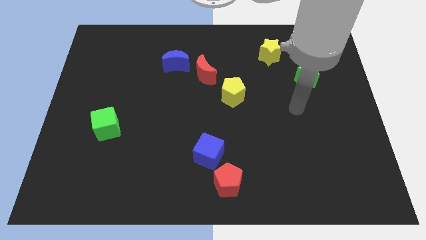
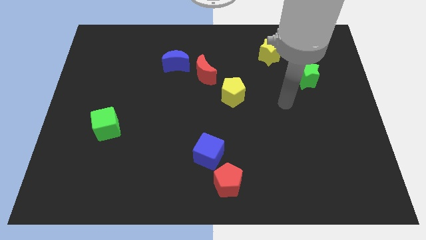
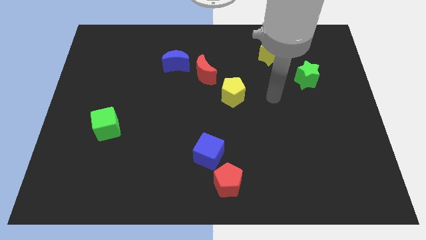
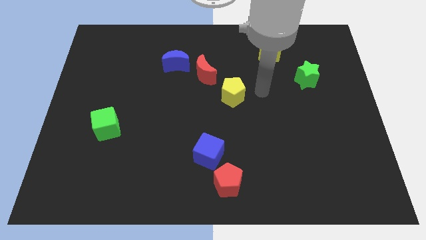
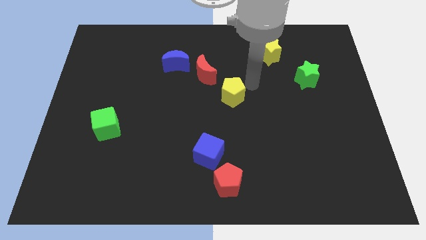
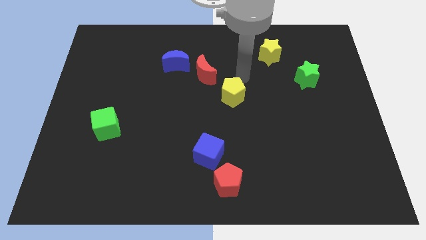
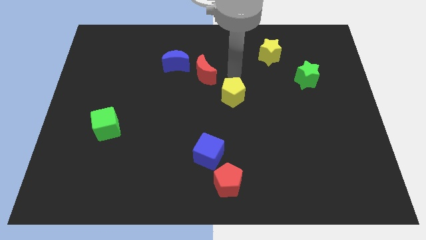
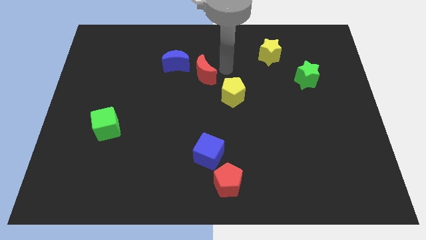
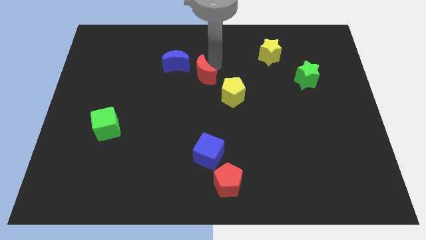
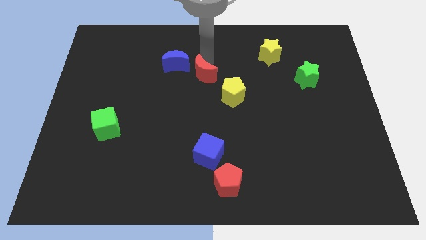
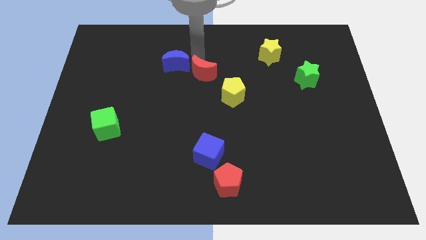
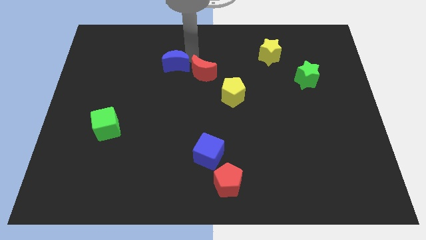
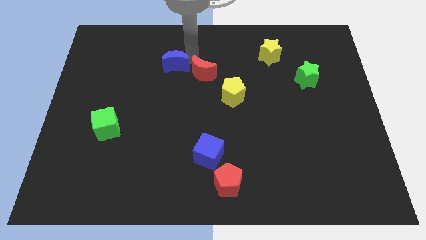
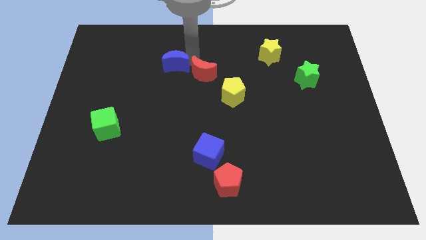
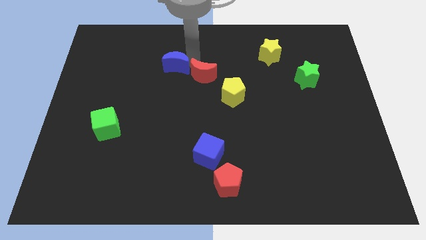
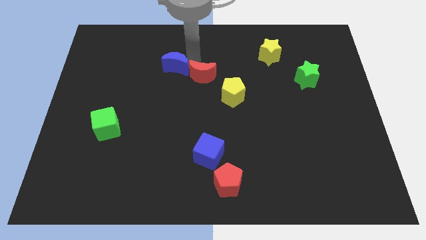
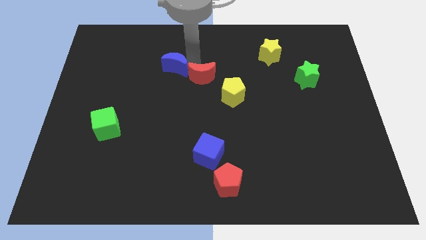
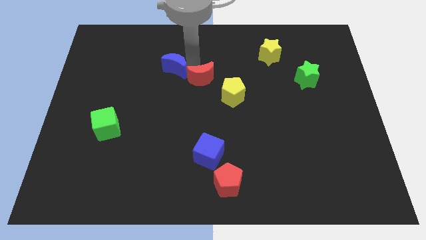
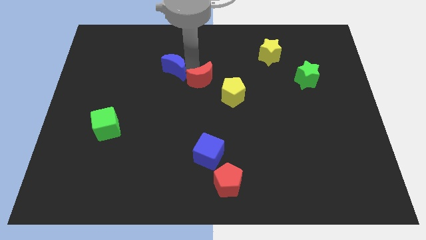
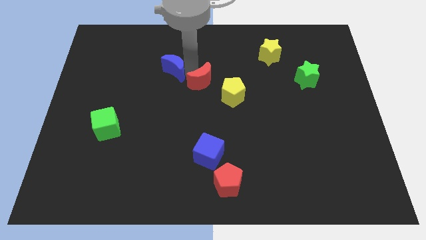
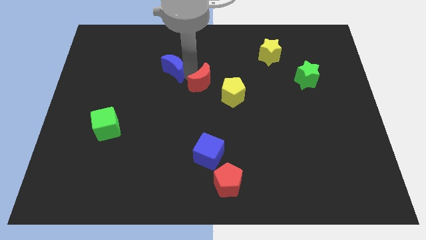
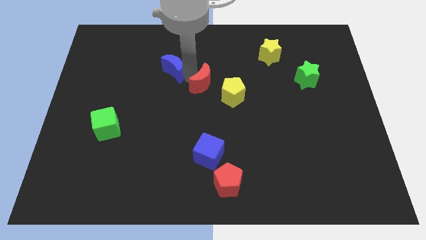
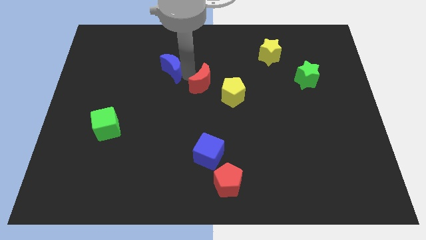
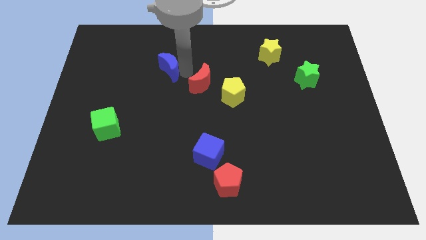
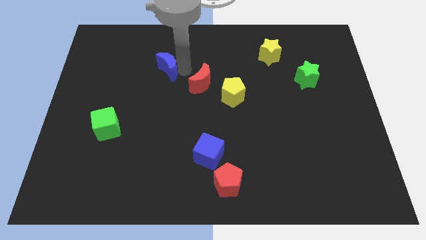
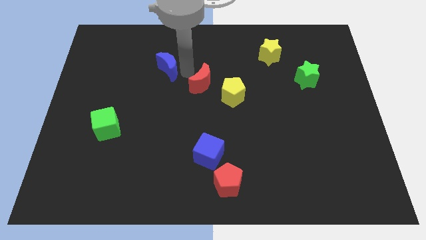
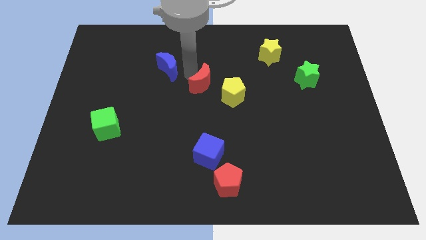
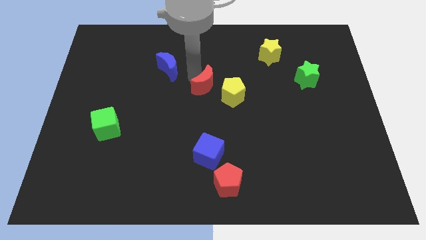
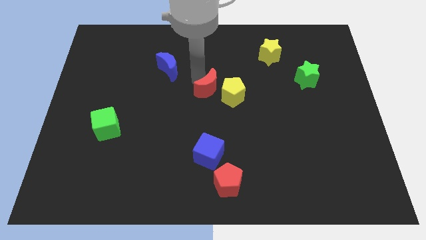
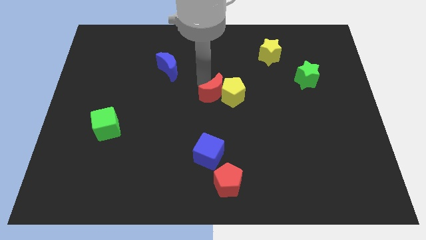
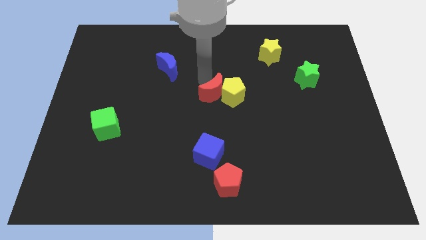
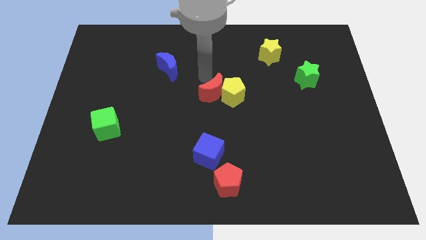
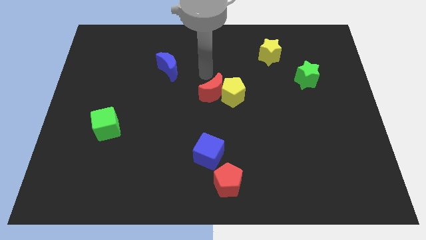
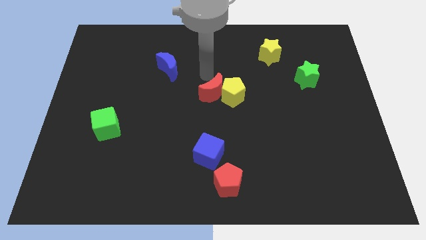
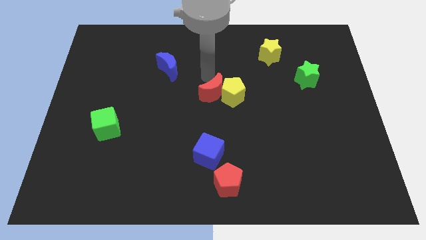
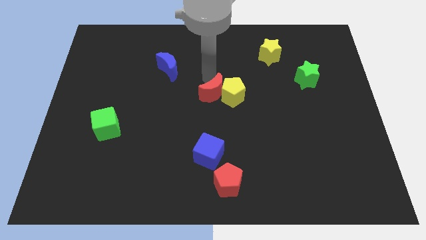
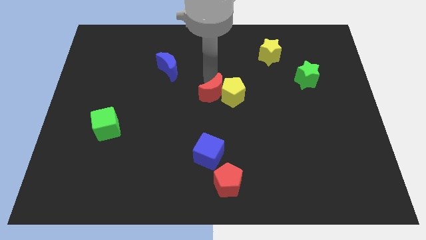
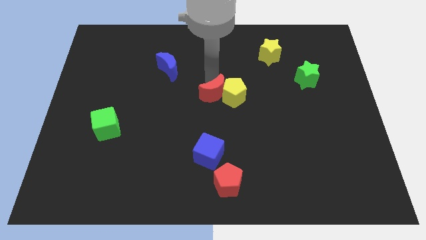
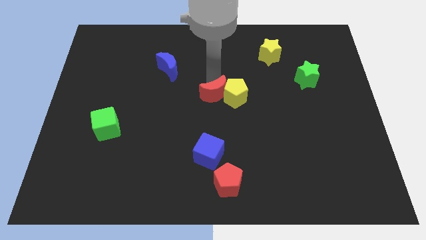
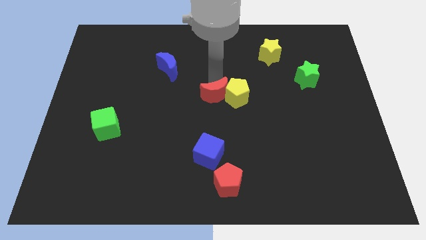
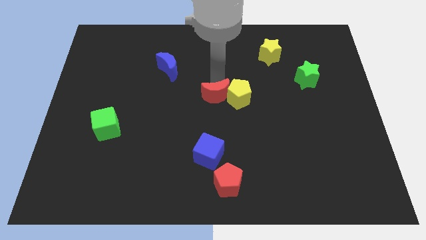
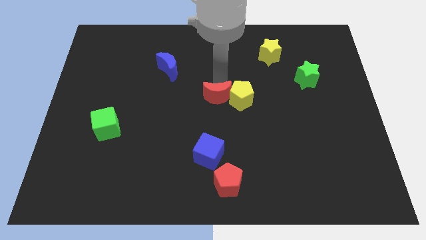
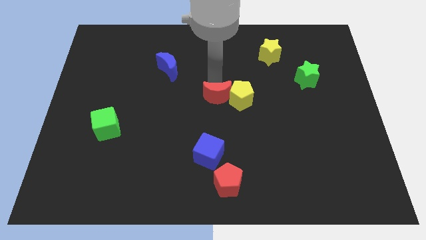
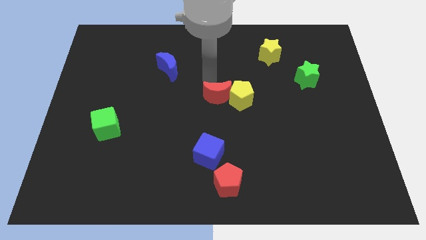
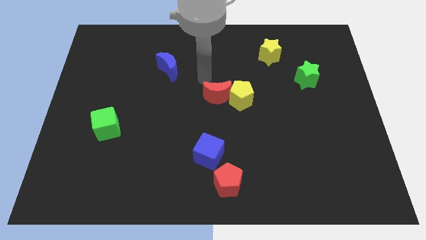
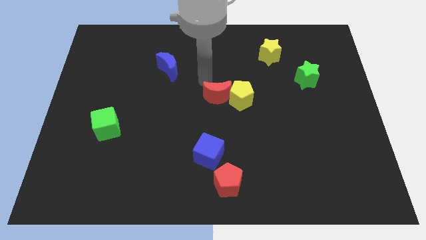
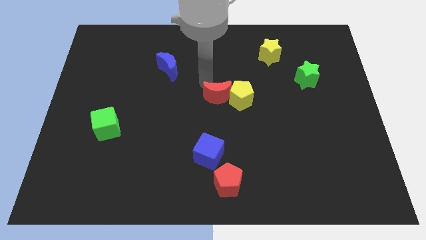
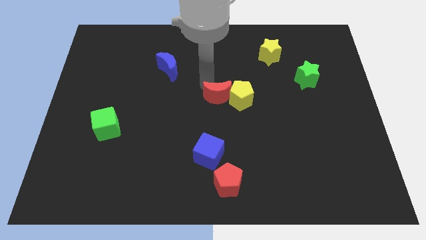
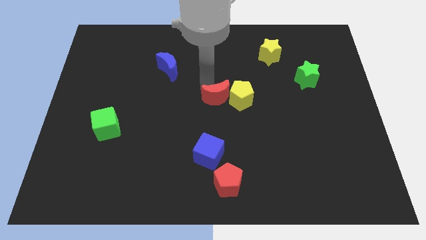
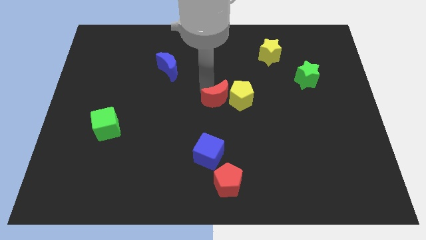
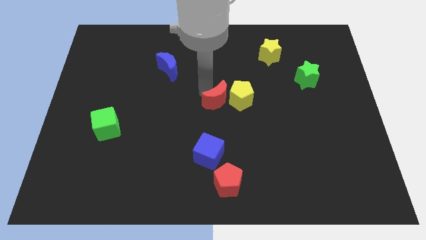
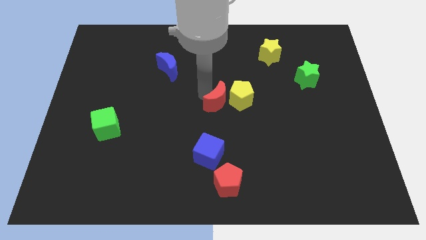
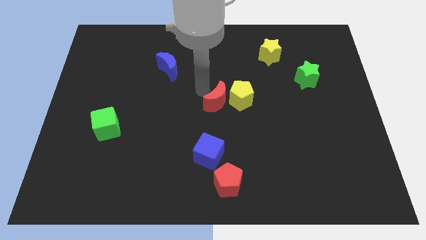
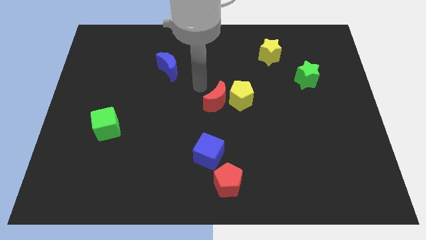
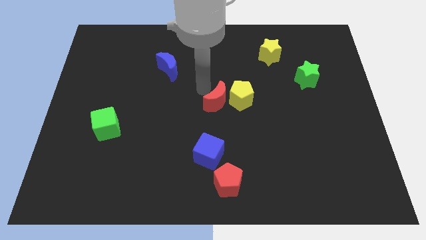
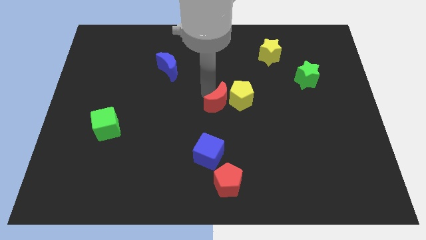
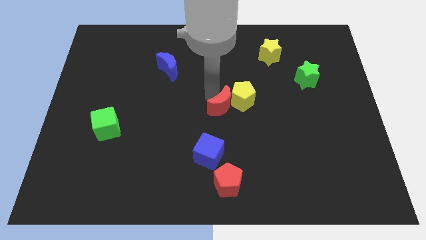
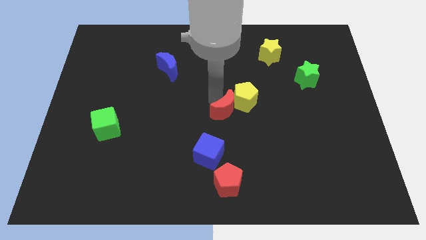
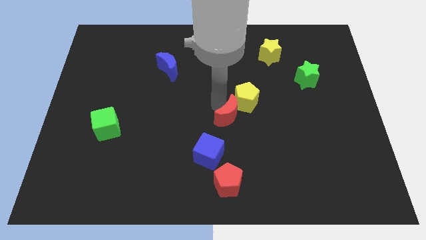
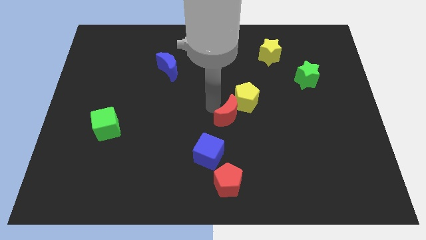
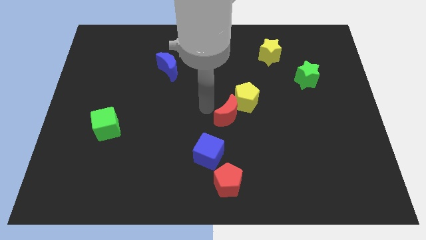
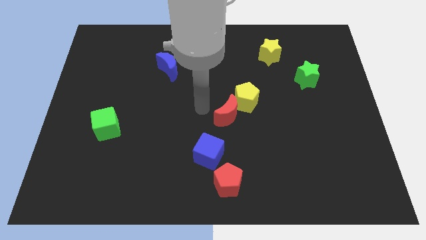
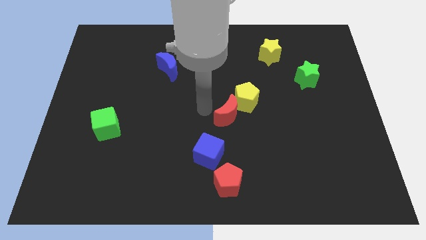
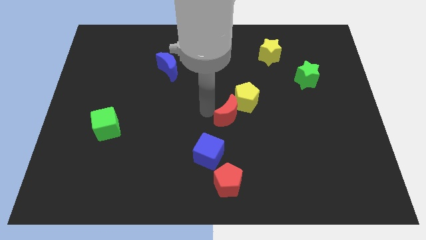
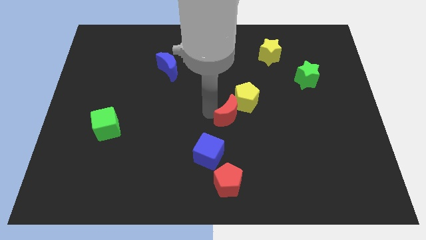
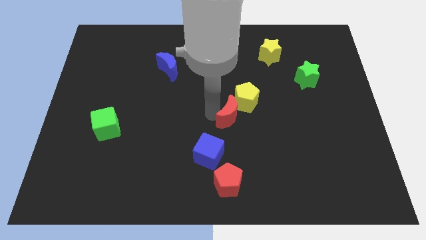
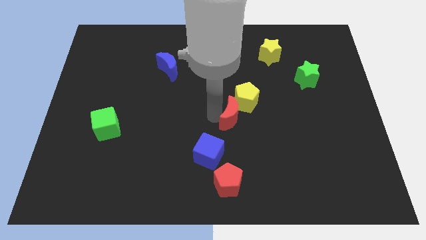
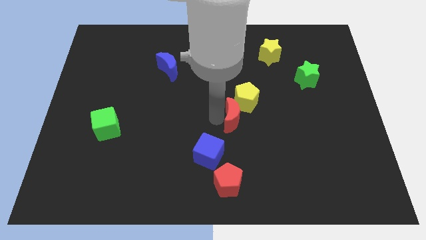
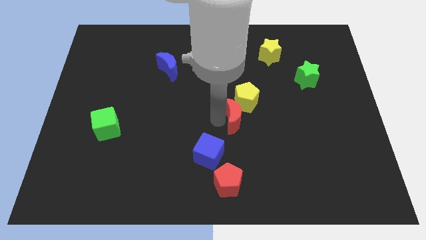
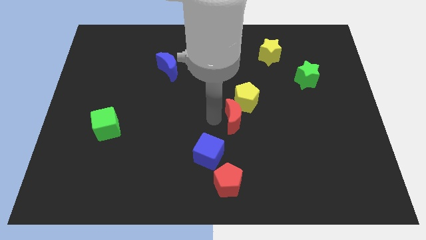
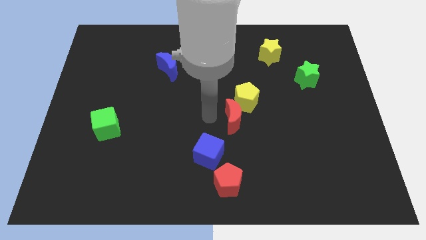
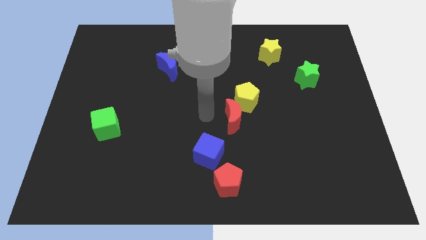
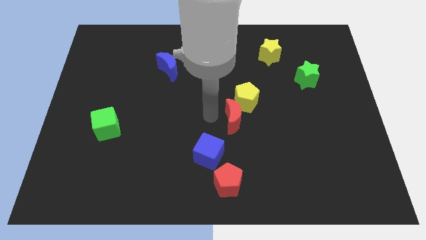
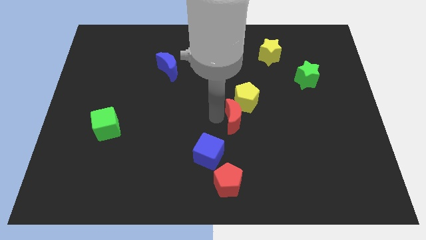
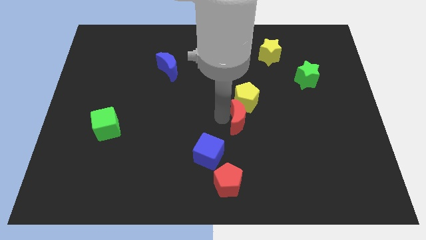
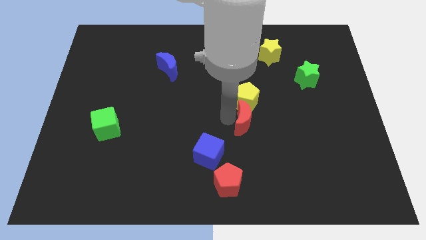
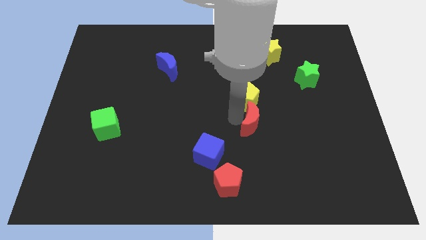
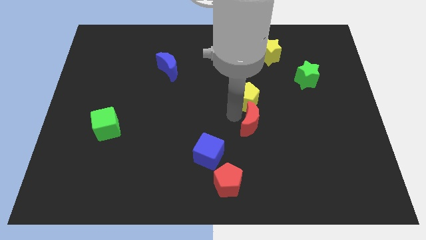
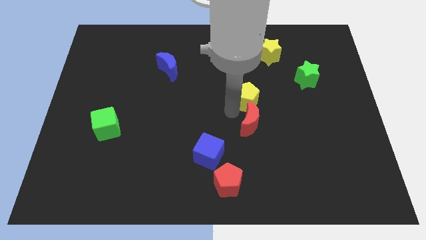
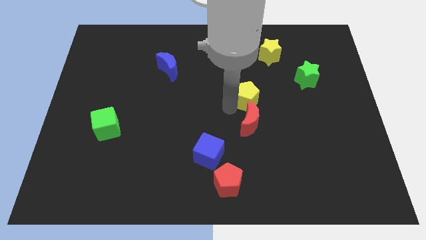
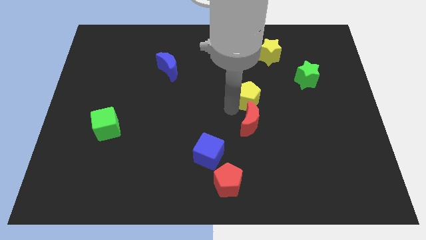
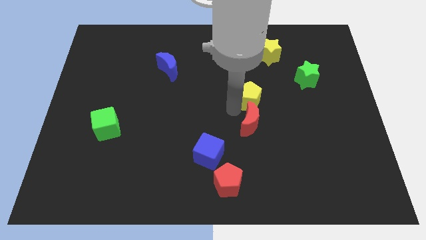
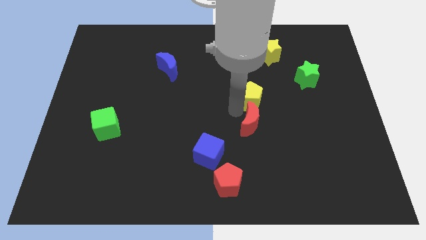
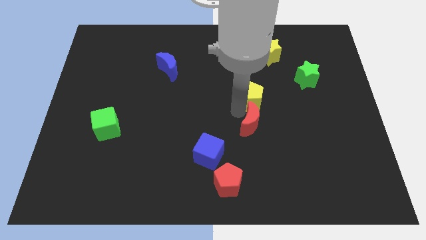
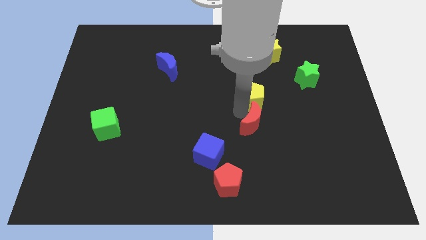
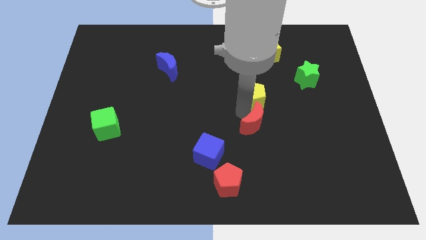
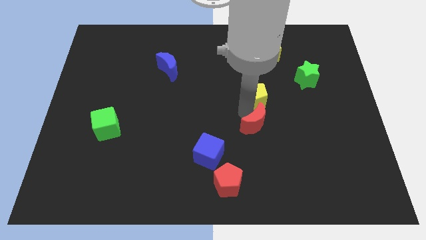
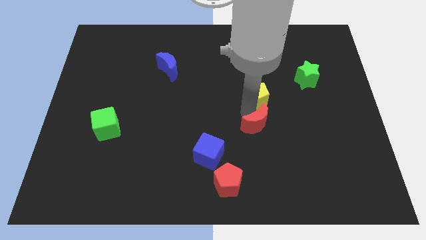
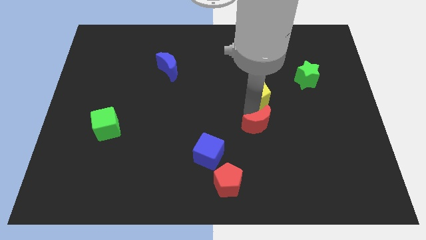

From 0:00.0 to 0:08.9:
slide the red moon diagonally down and right
